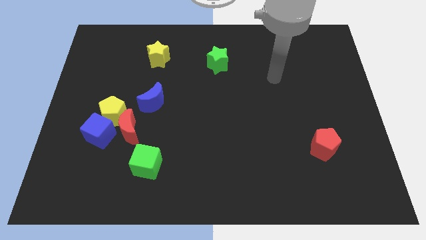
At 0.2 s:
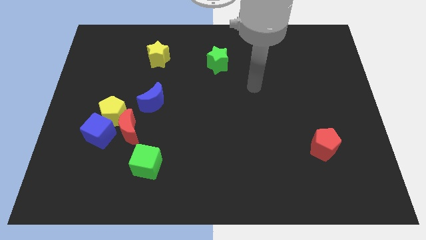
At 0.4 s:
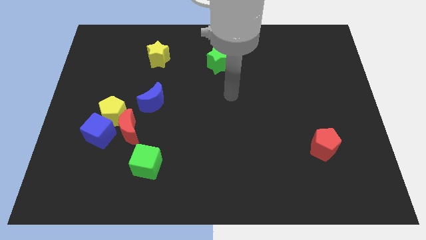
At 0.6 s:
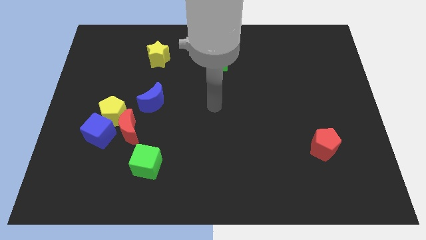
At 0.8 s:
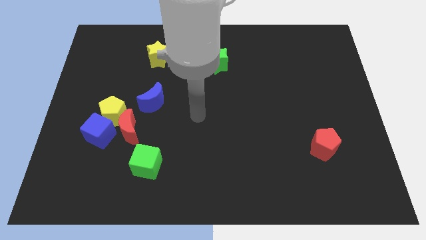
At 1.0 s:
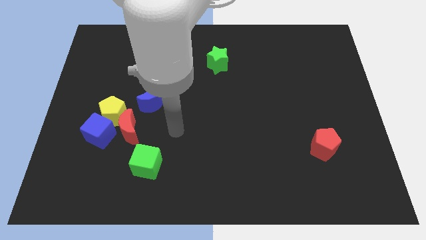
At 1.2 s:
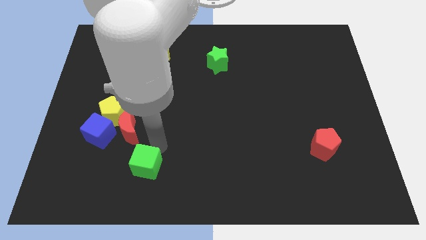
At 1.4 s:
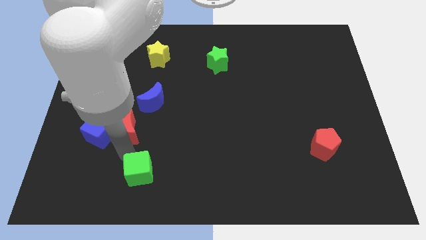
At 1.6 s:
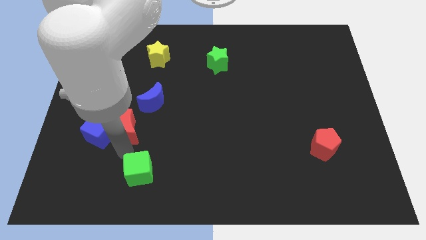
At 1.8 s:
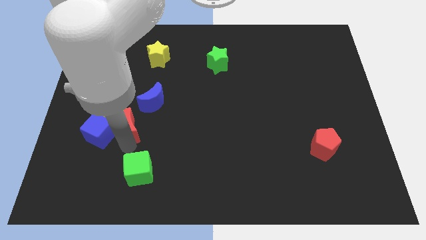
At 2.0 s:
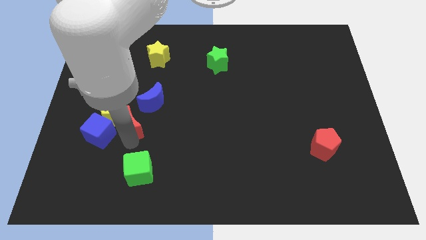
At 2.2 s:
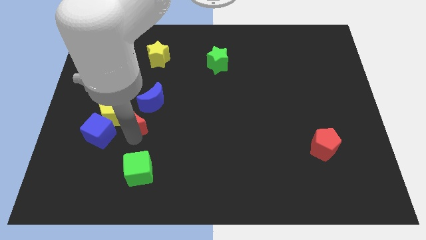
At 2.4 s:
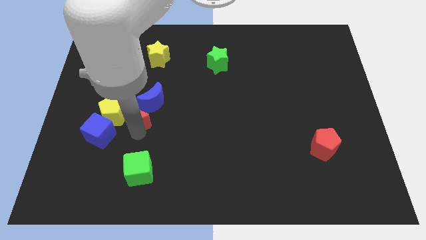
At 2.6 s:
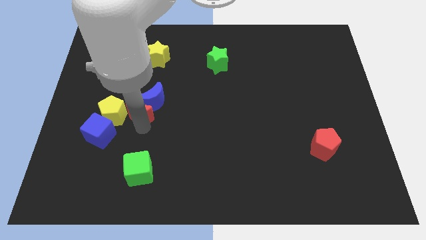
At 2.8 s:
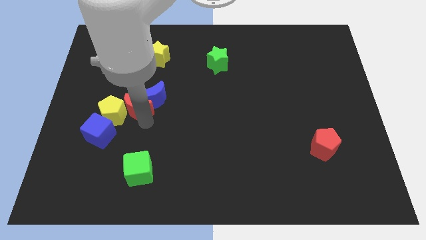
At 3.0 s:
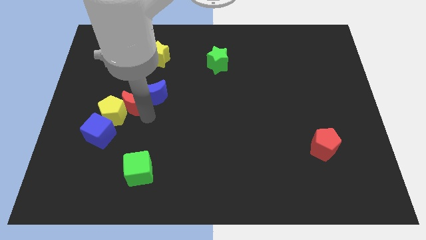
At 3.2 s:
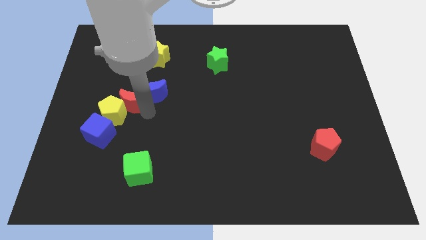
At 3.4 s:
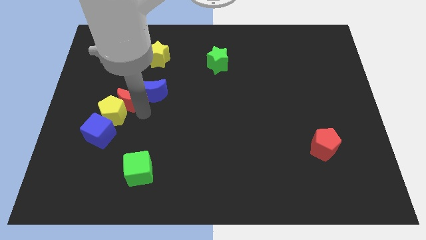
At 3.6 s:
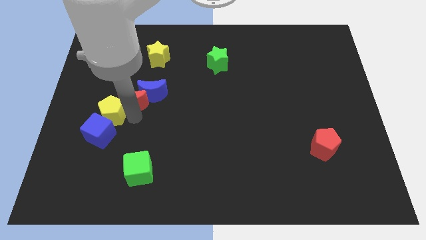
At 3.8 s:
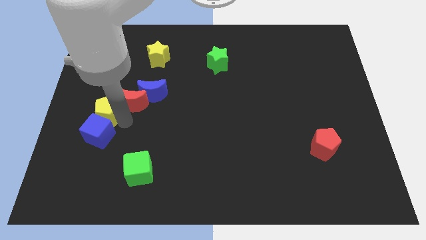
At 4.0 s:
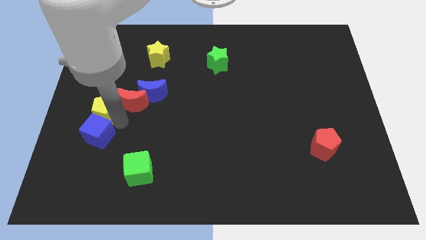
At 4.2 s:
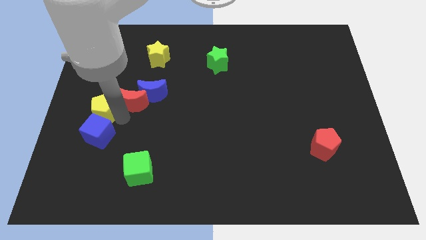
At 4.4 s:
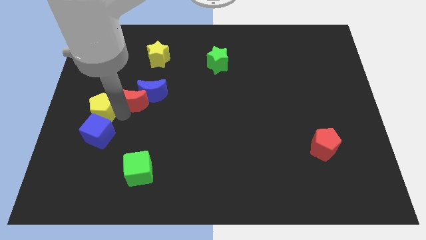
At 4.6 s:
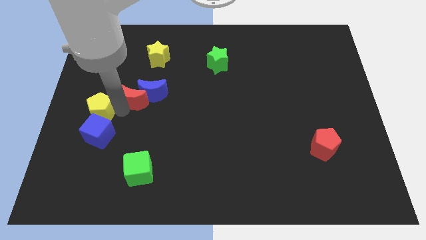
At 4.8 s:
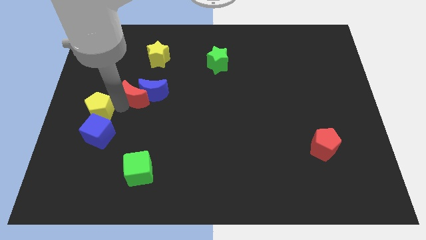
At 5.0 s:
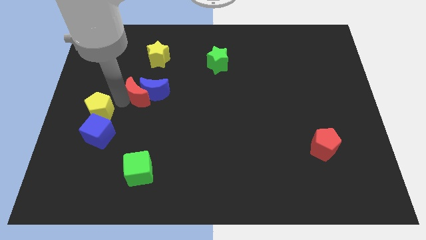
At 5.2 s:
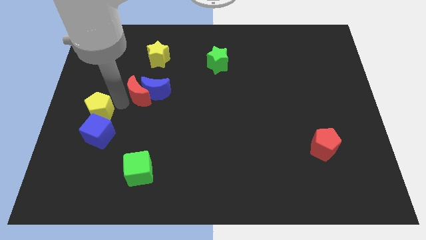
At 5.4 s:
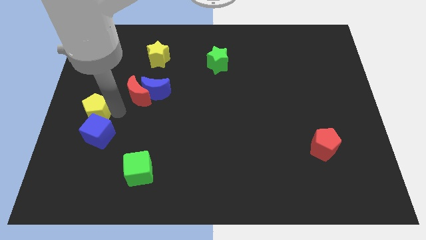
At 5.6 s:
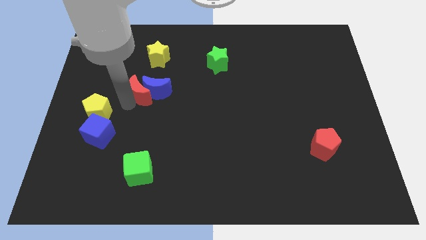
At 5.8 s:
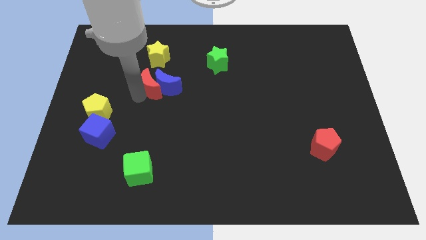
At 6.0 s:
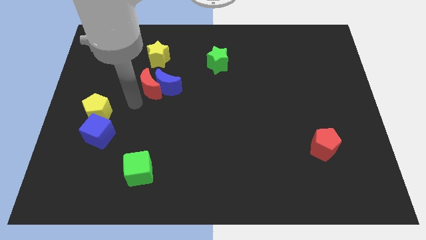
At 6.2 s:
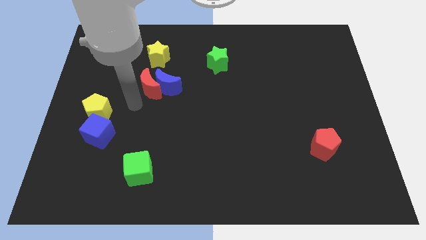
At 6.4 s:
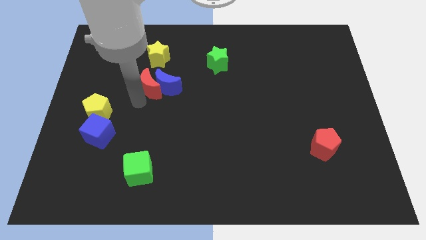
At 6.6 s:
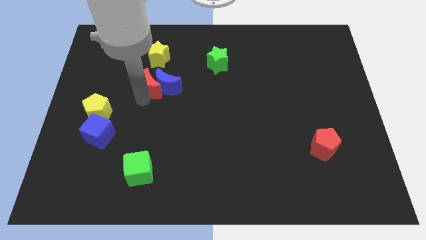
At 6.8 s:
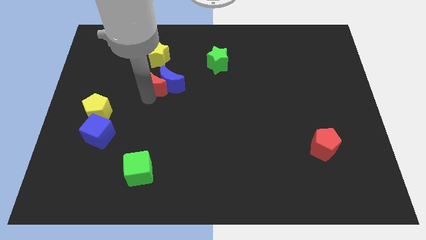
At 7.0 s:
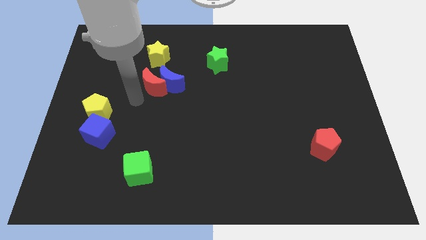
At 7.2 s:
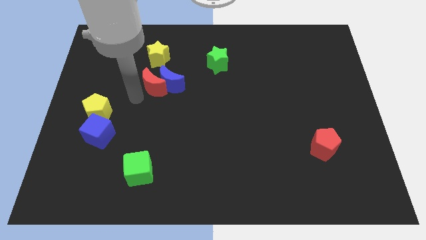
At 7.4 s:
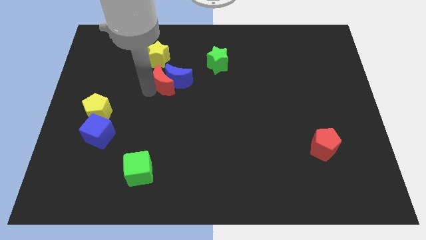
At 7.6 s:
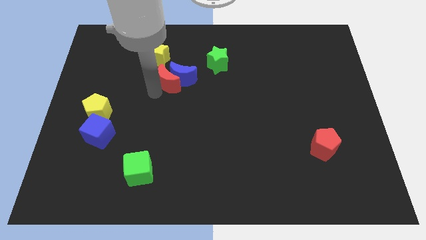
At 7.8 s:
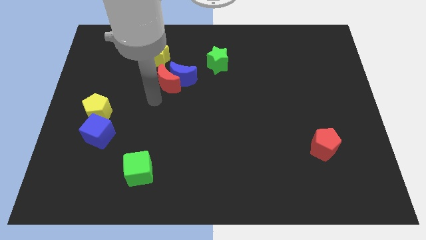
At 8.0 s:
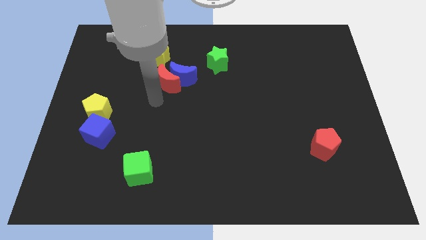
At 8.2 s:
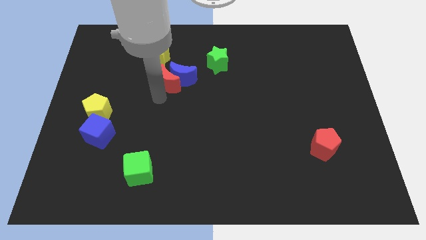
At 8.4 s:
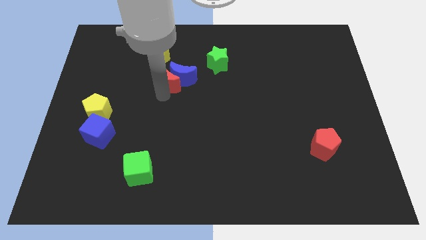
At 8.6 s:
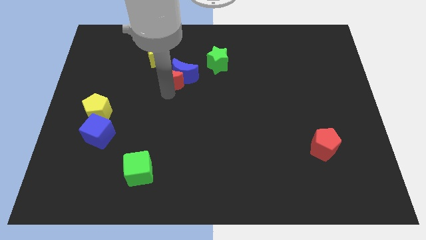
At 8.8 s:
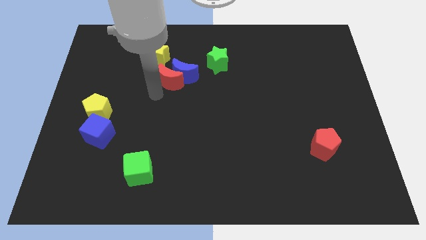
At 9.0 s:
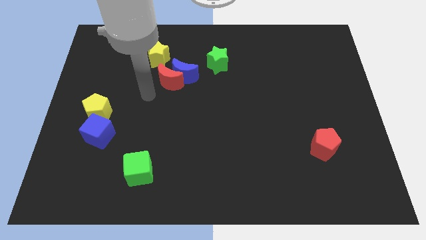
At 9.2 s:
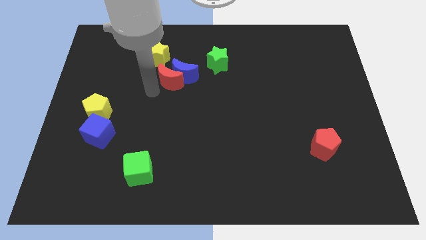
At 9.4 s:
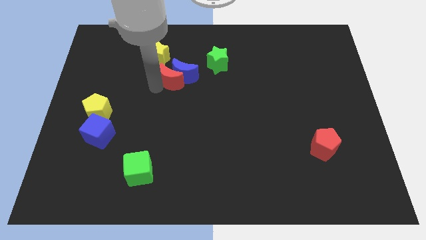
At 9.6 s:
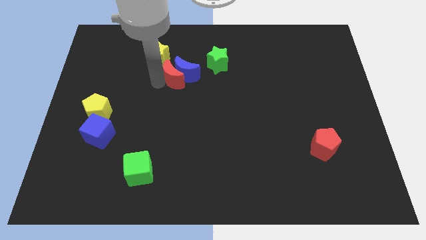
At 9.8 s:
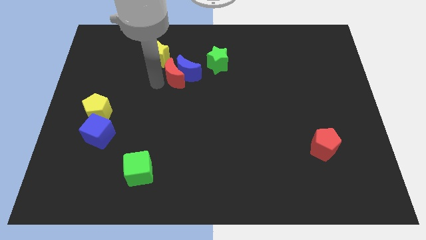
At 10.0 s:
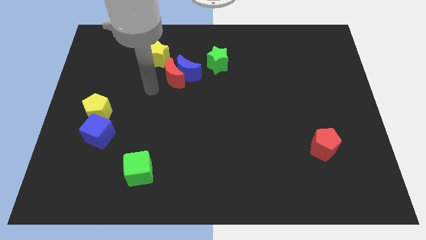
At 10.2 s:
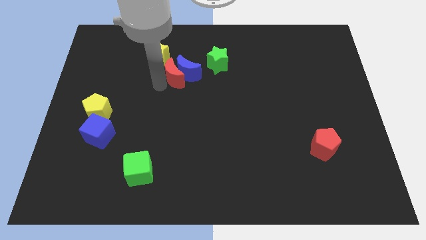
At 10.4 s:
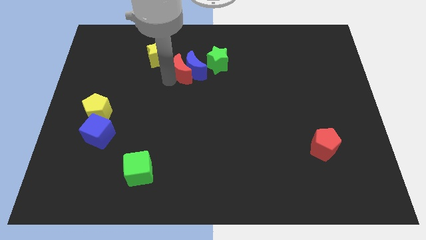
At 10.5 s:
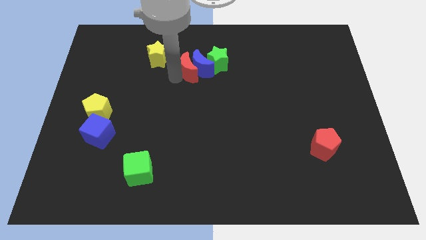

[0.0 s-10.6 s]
move the red moon to the right side of the yellow star

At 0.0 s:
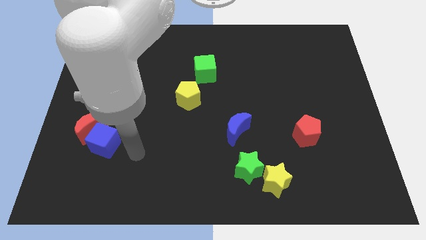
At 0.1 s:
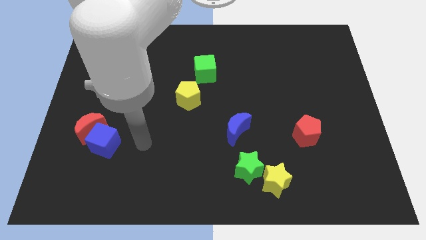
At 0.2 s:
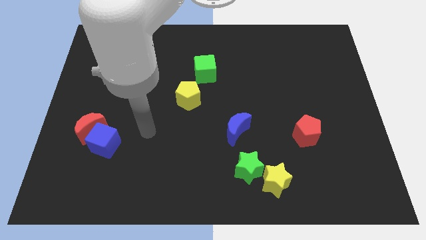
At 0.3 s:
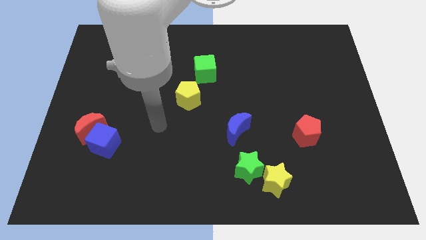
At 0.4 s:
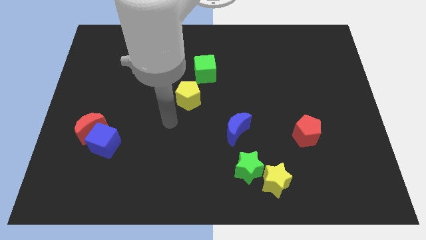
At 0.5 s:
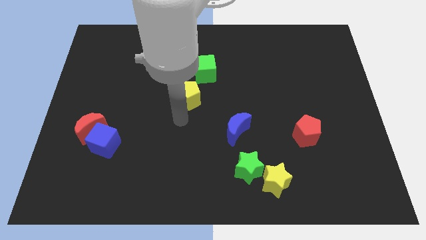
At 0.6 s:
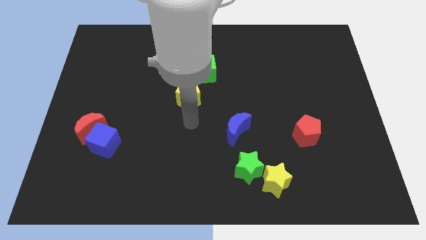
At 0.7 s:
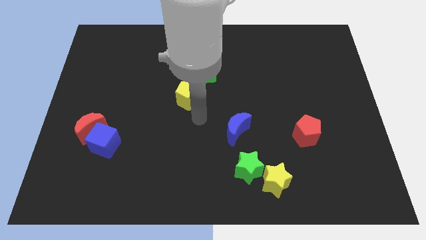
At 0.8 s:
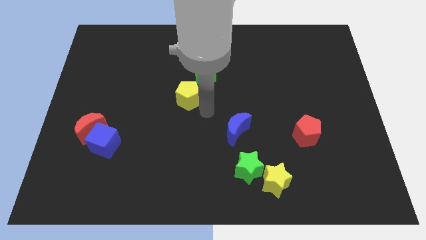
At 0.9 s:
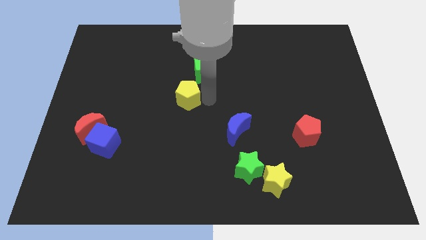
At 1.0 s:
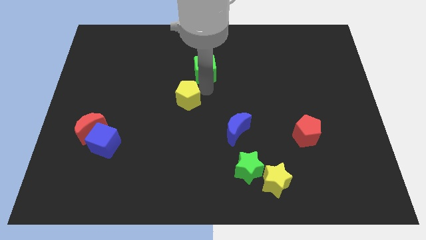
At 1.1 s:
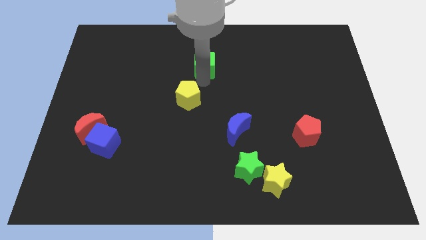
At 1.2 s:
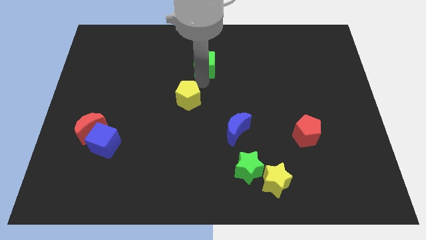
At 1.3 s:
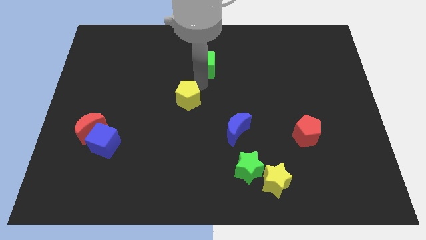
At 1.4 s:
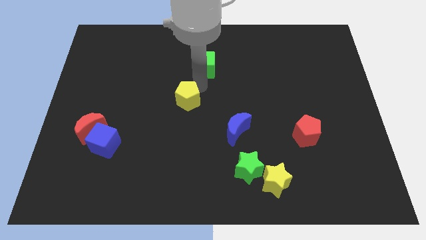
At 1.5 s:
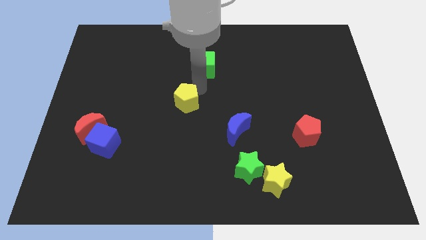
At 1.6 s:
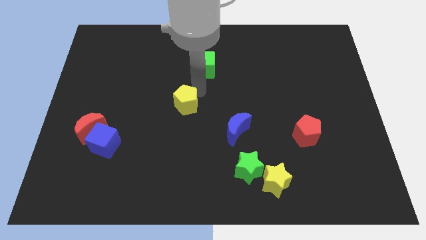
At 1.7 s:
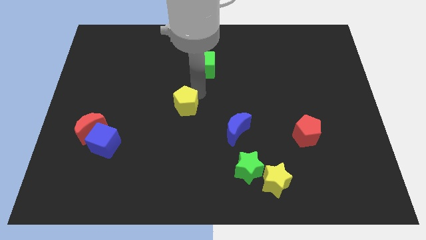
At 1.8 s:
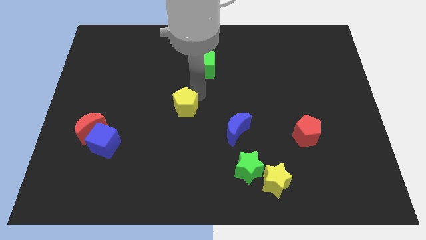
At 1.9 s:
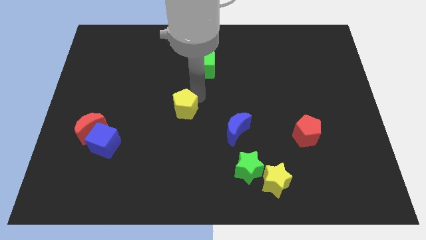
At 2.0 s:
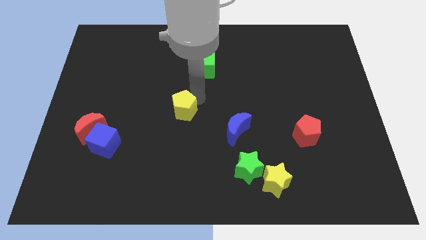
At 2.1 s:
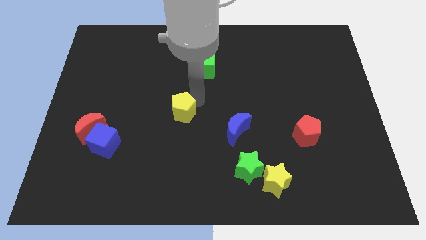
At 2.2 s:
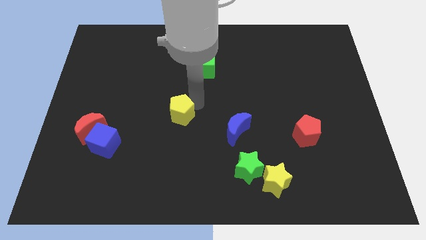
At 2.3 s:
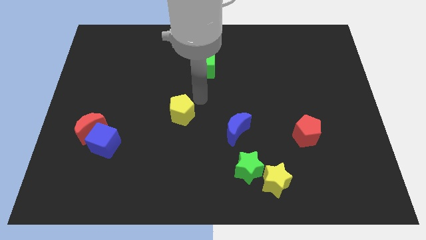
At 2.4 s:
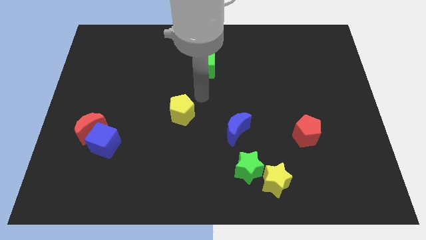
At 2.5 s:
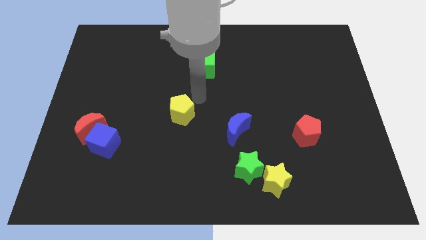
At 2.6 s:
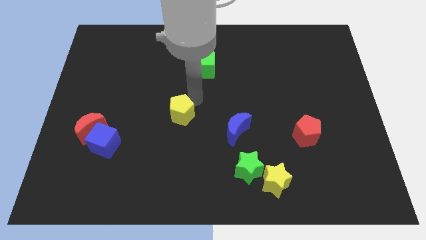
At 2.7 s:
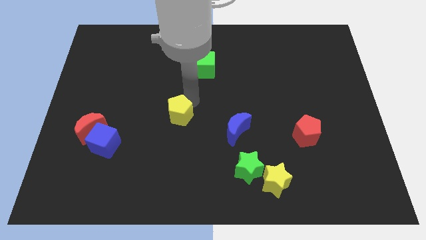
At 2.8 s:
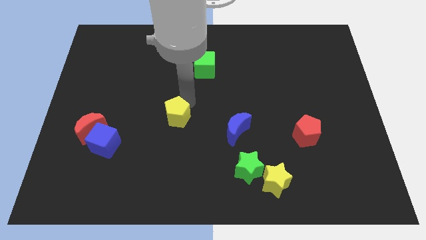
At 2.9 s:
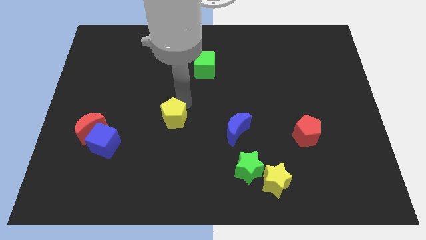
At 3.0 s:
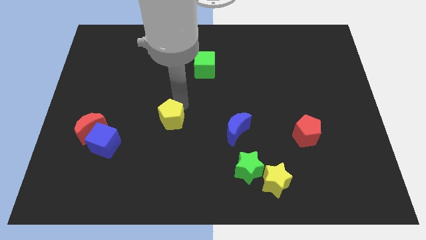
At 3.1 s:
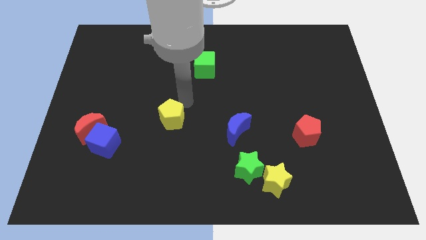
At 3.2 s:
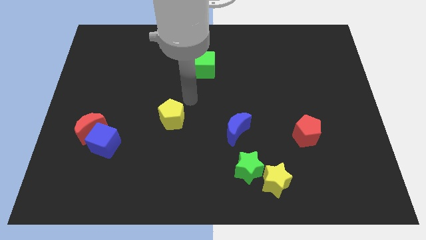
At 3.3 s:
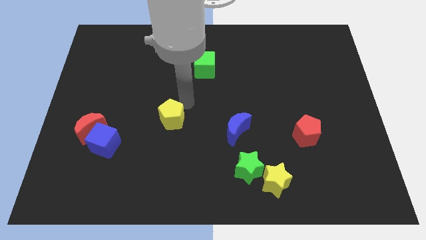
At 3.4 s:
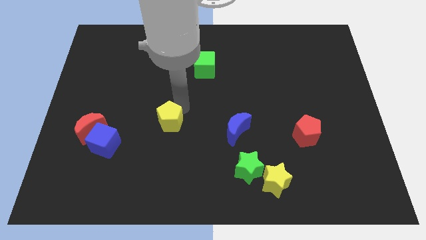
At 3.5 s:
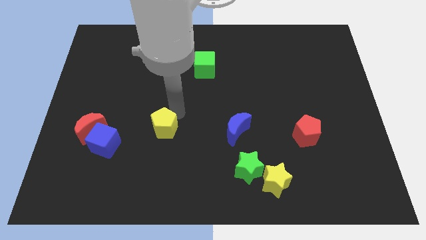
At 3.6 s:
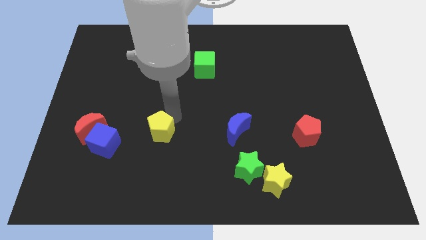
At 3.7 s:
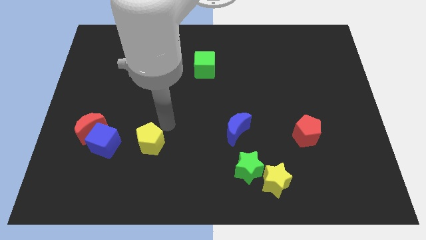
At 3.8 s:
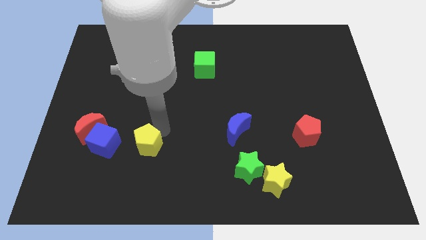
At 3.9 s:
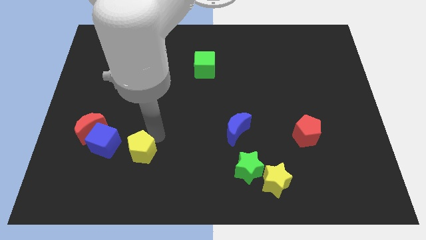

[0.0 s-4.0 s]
push the yellow pentagon to the bottom right of the blue cube
